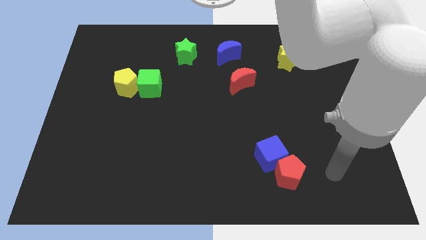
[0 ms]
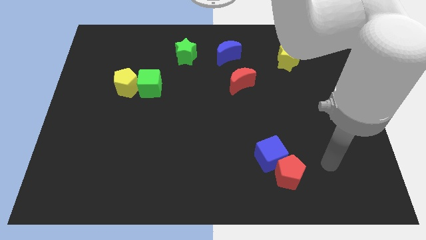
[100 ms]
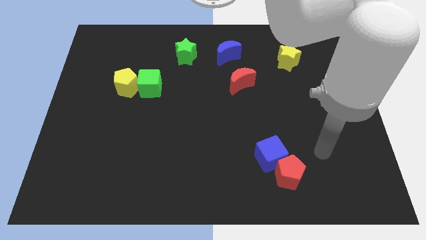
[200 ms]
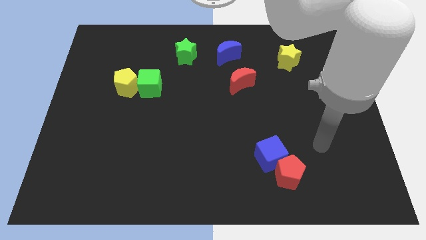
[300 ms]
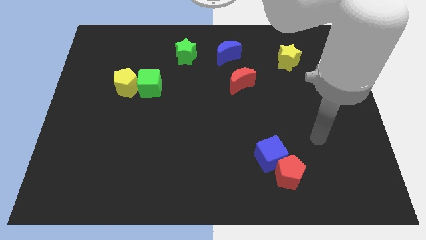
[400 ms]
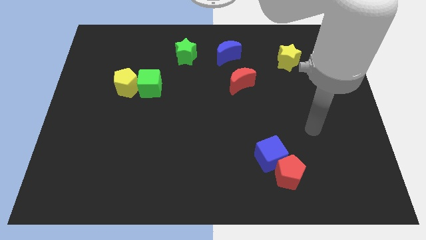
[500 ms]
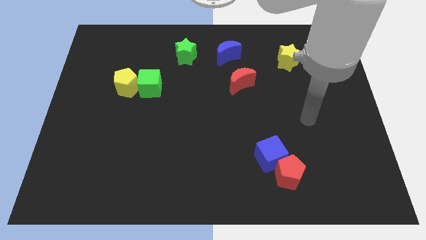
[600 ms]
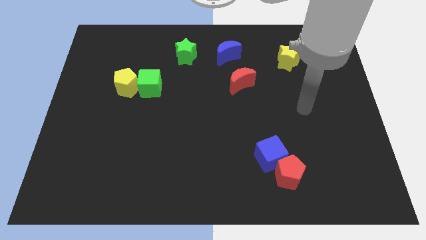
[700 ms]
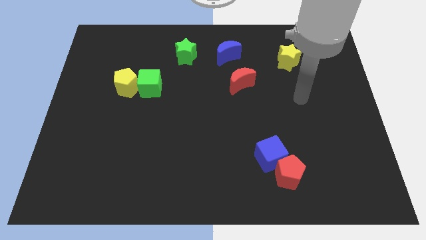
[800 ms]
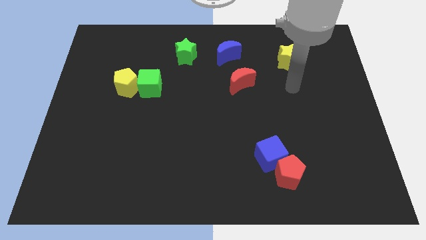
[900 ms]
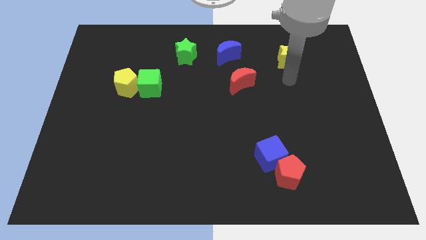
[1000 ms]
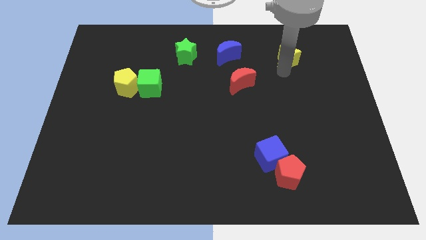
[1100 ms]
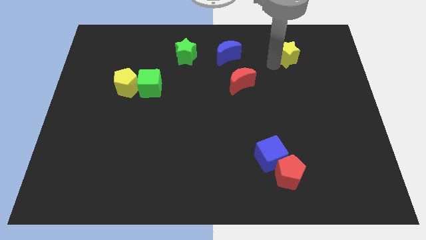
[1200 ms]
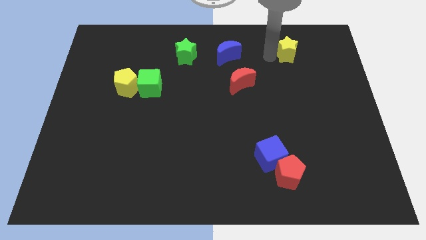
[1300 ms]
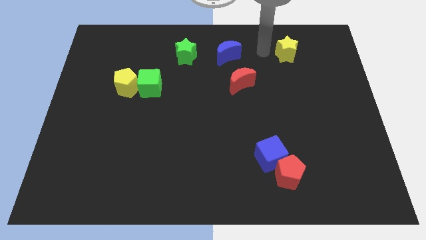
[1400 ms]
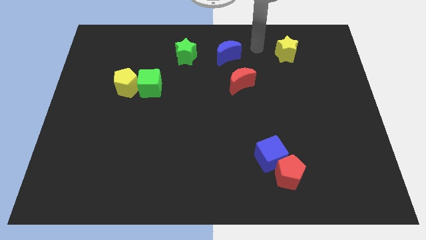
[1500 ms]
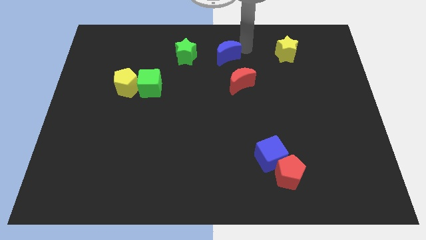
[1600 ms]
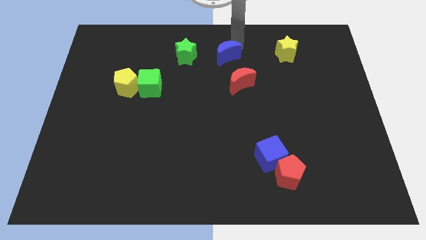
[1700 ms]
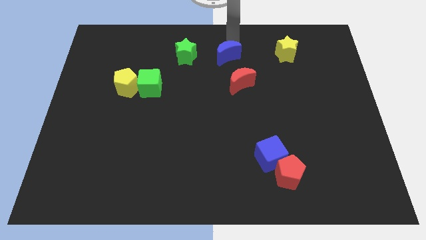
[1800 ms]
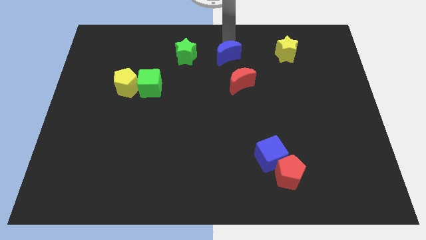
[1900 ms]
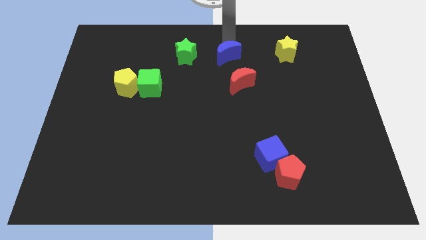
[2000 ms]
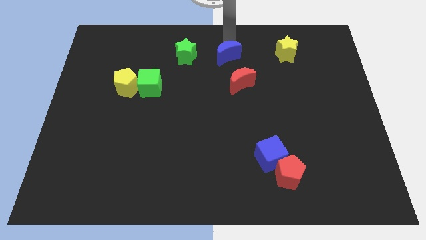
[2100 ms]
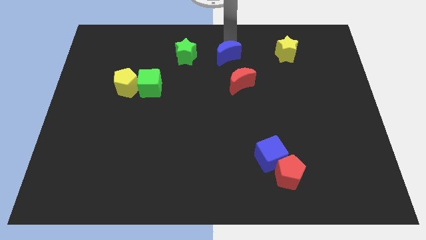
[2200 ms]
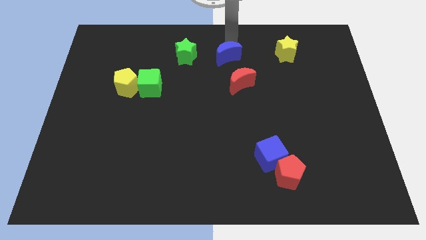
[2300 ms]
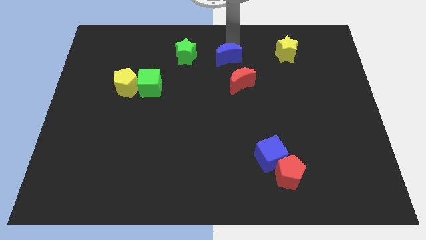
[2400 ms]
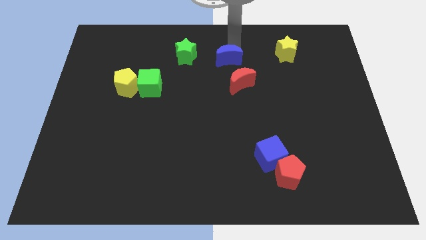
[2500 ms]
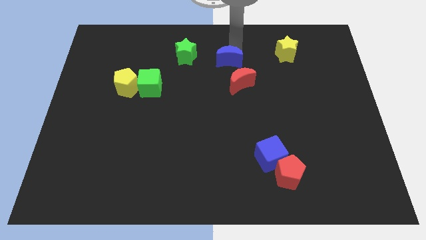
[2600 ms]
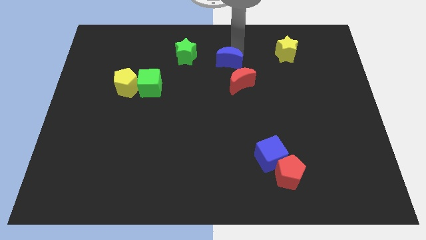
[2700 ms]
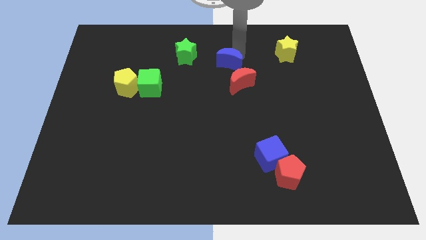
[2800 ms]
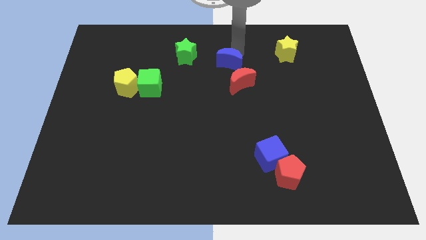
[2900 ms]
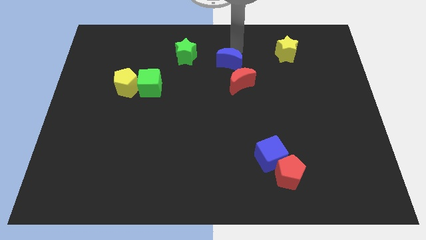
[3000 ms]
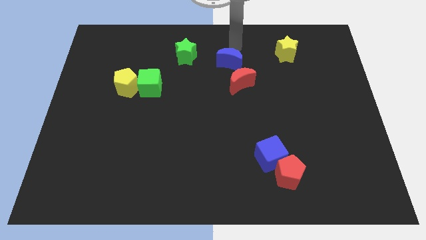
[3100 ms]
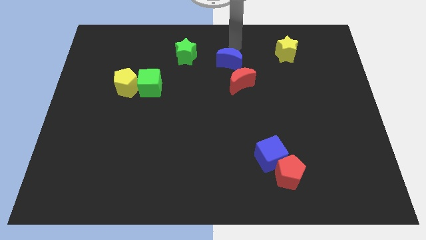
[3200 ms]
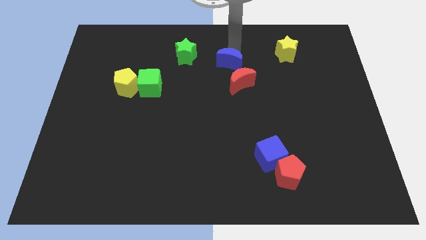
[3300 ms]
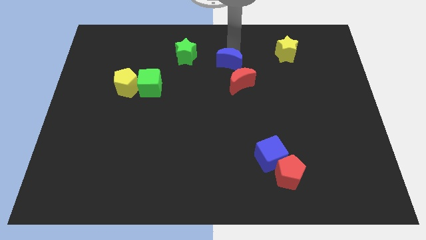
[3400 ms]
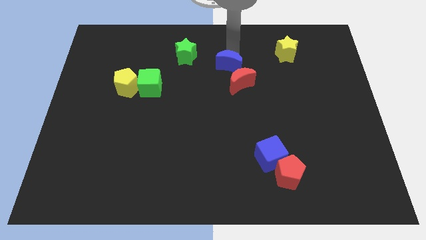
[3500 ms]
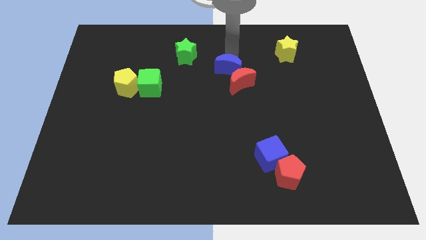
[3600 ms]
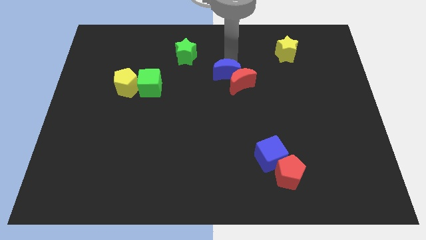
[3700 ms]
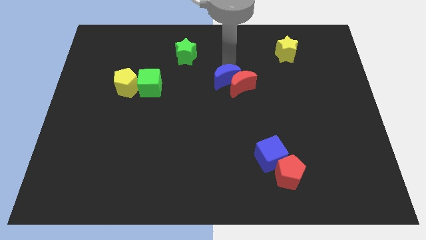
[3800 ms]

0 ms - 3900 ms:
move the blue moon to the bottom left side of the red moon

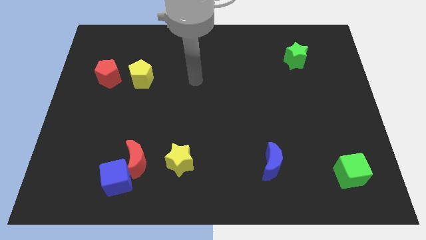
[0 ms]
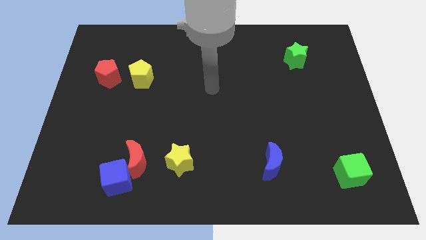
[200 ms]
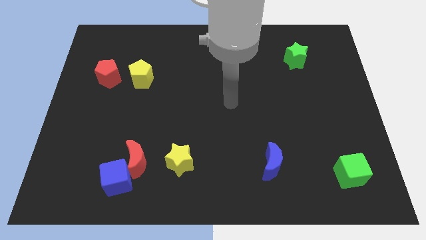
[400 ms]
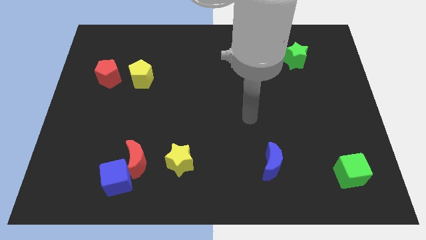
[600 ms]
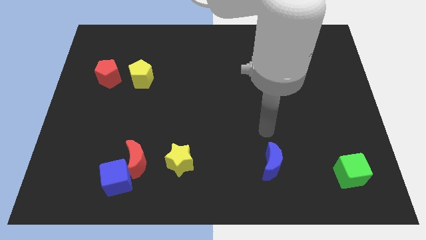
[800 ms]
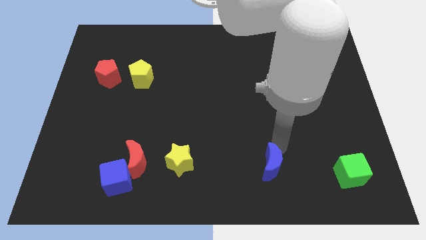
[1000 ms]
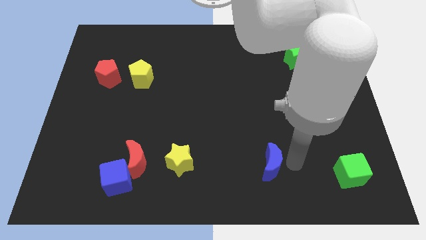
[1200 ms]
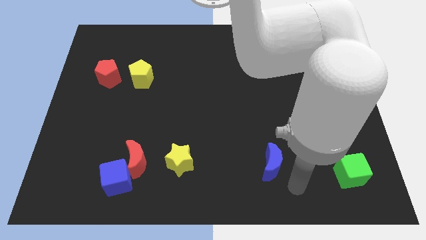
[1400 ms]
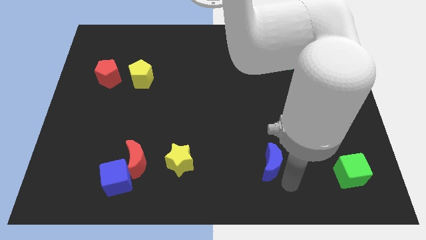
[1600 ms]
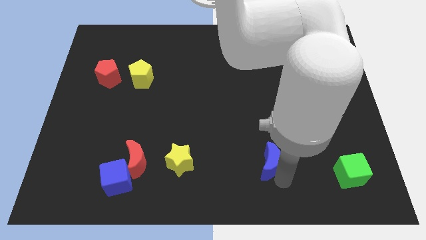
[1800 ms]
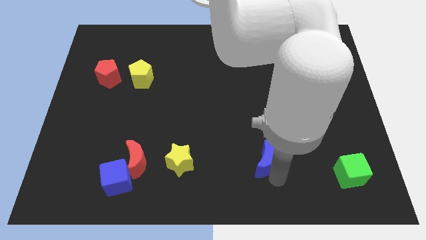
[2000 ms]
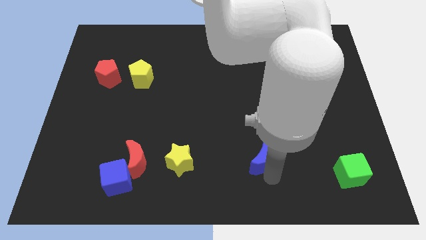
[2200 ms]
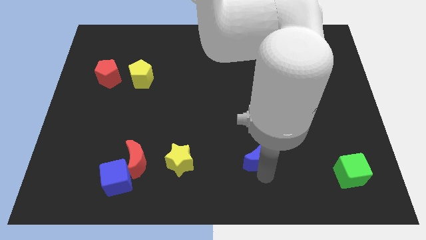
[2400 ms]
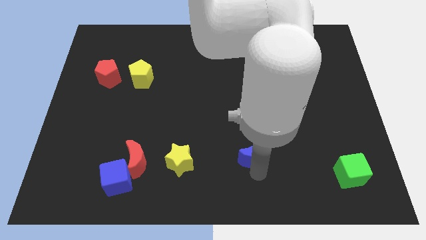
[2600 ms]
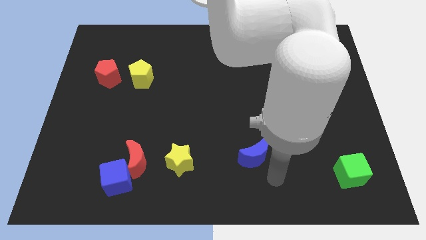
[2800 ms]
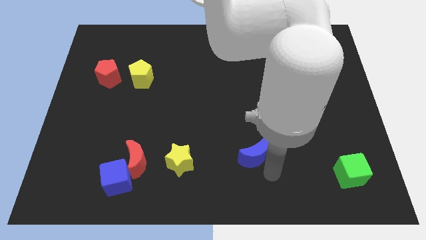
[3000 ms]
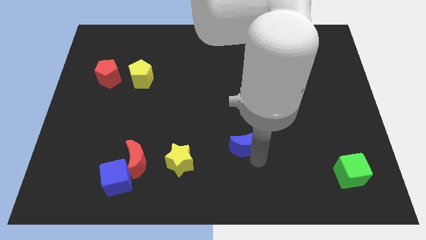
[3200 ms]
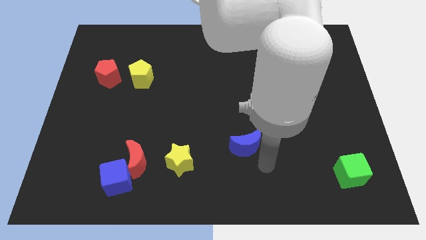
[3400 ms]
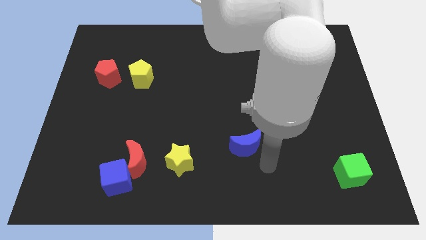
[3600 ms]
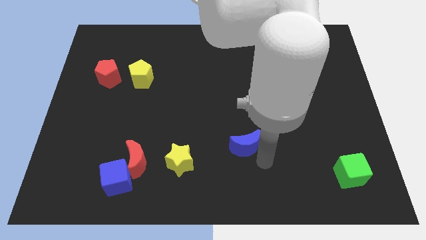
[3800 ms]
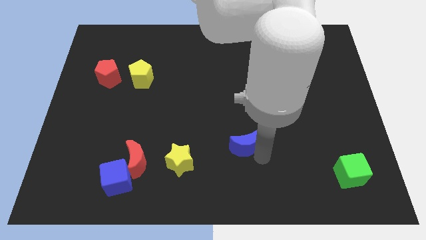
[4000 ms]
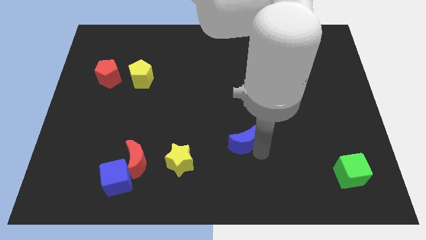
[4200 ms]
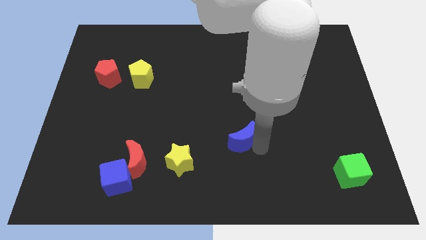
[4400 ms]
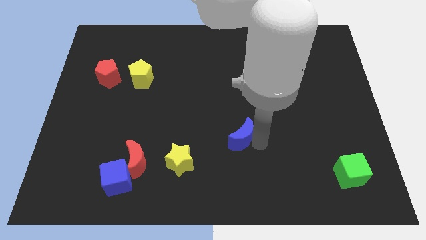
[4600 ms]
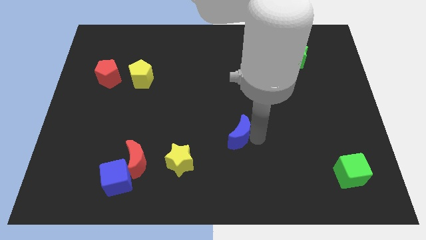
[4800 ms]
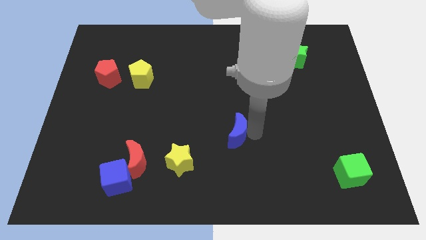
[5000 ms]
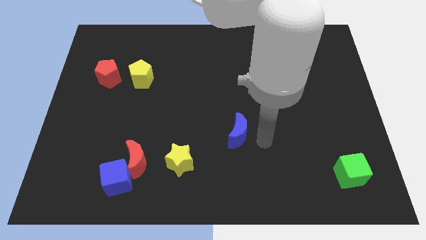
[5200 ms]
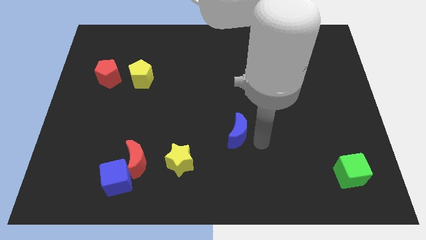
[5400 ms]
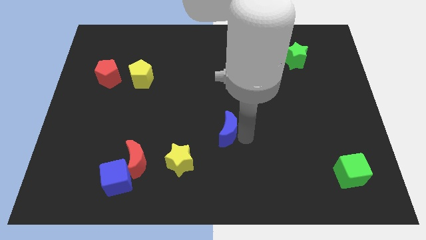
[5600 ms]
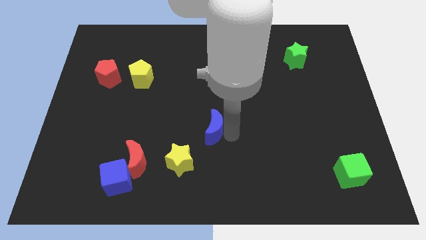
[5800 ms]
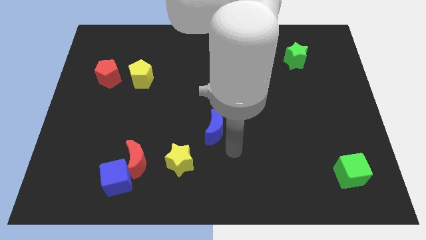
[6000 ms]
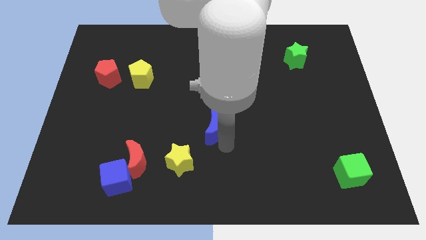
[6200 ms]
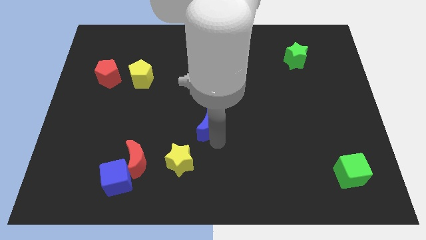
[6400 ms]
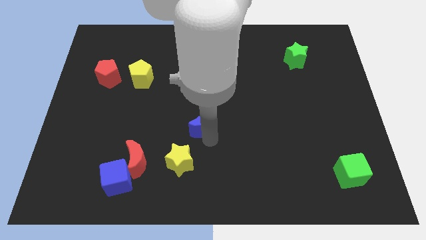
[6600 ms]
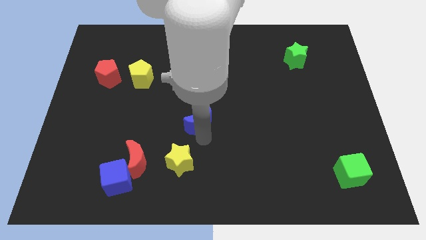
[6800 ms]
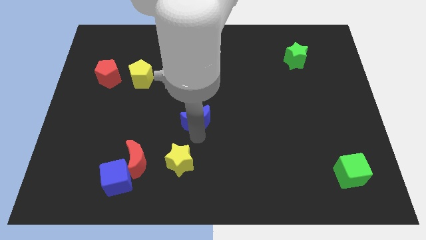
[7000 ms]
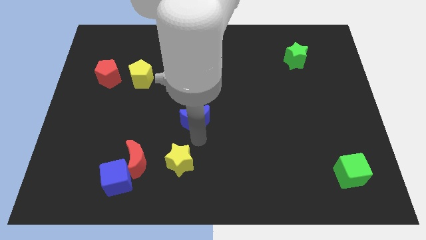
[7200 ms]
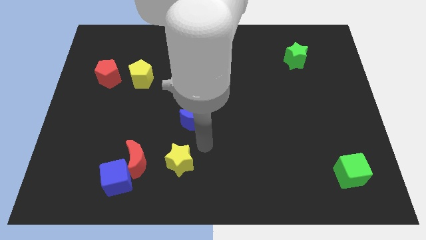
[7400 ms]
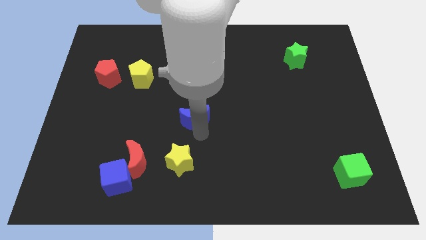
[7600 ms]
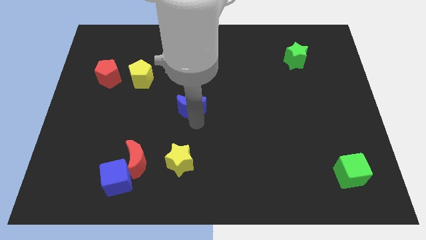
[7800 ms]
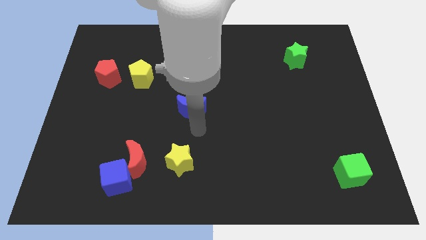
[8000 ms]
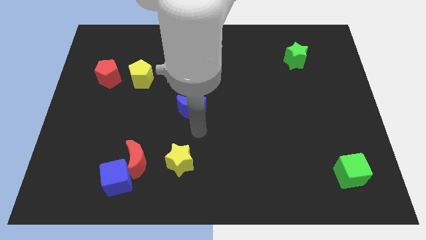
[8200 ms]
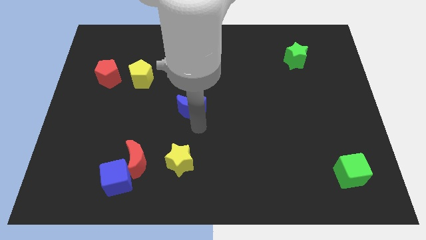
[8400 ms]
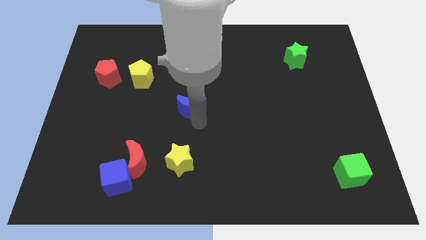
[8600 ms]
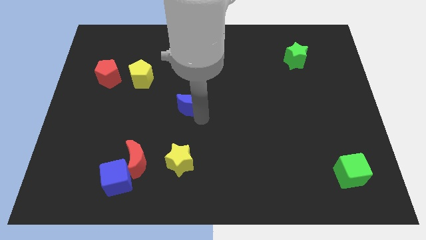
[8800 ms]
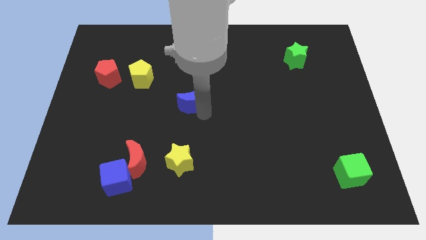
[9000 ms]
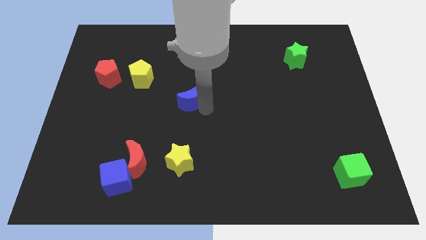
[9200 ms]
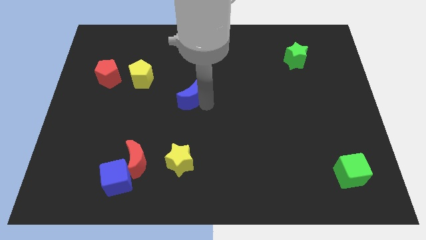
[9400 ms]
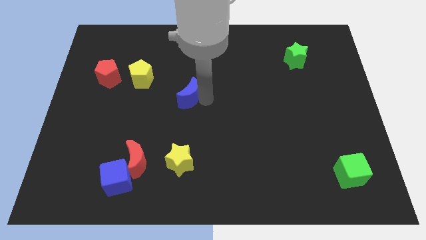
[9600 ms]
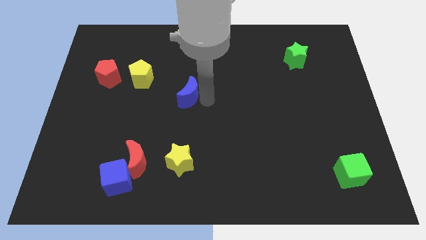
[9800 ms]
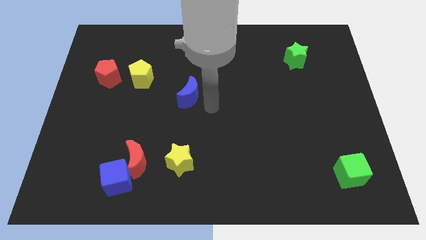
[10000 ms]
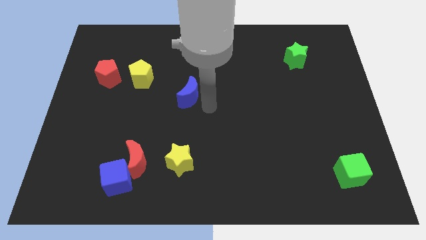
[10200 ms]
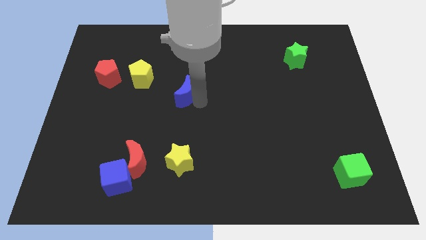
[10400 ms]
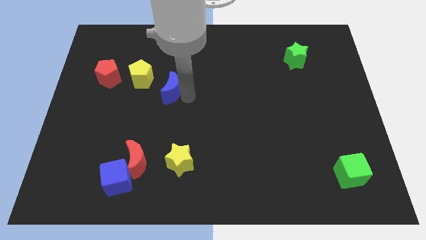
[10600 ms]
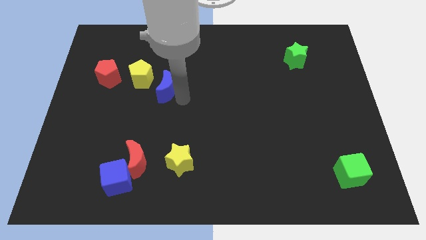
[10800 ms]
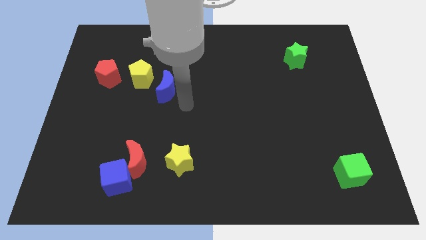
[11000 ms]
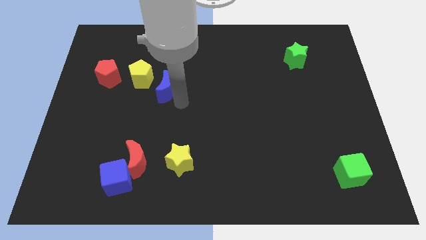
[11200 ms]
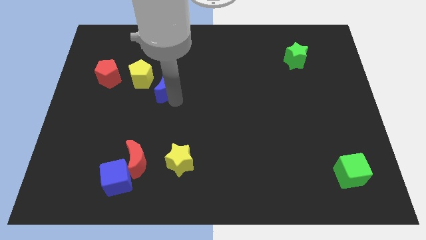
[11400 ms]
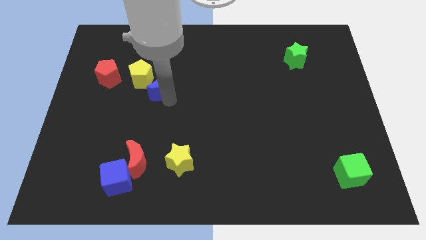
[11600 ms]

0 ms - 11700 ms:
push the blue moon to the right side of the red pentagon
